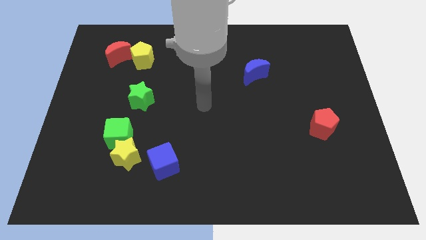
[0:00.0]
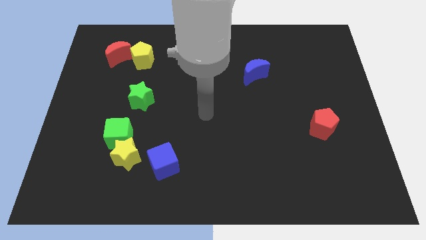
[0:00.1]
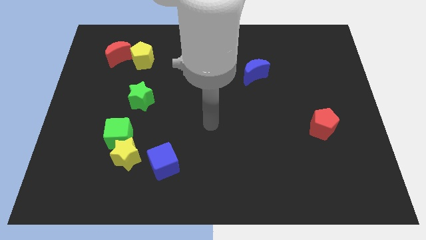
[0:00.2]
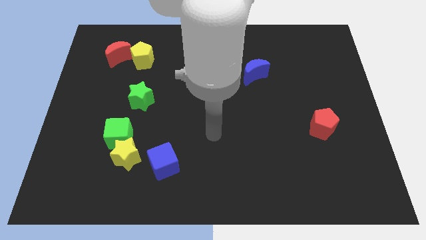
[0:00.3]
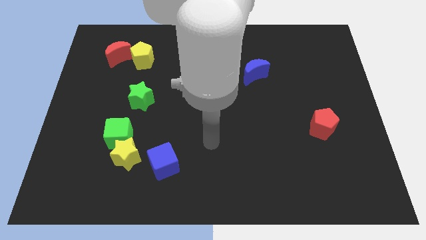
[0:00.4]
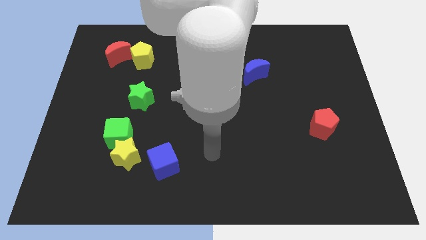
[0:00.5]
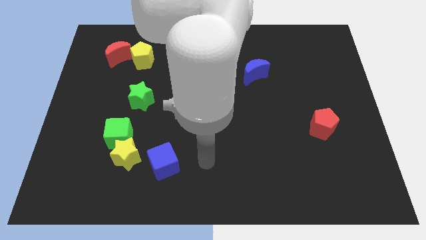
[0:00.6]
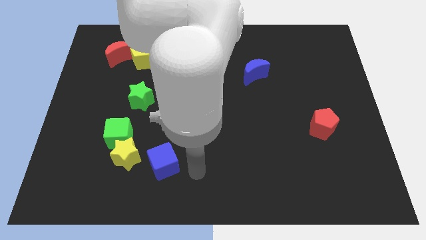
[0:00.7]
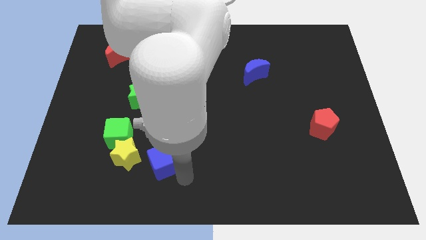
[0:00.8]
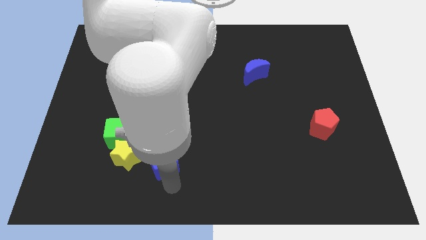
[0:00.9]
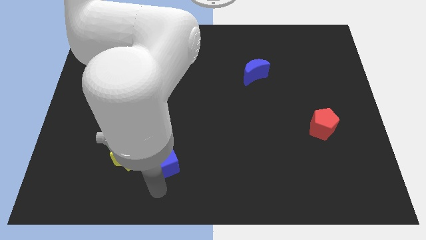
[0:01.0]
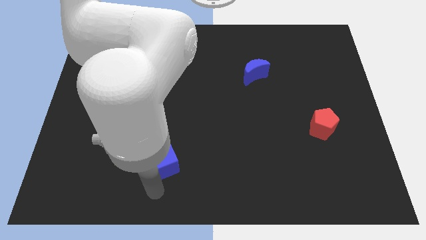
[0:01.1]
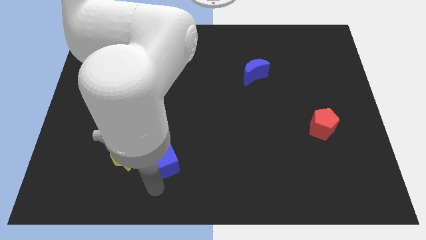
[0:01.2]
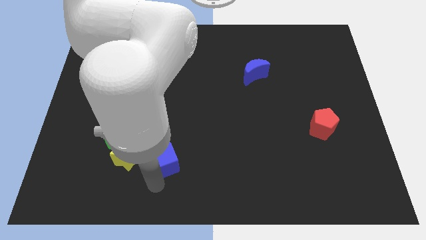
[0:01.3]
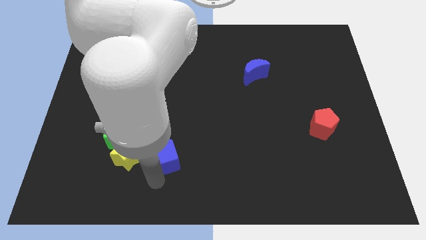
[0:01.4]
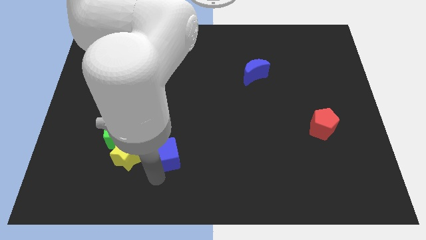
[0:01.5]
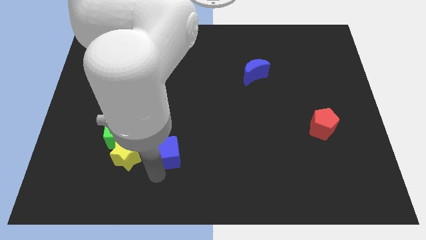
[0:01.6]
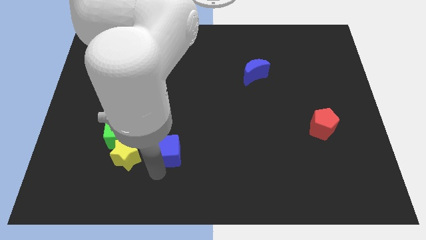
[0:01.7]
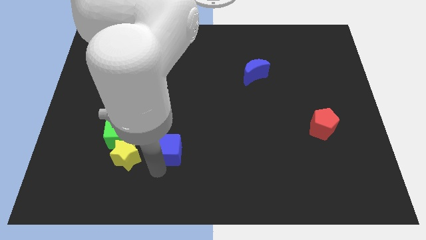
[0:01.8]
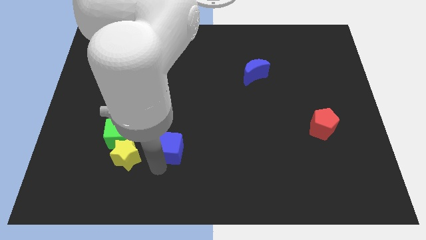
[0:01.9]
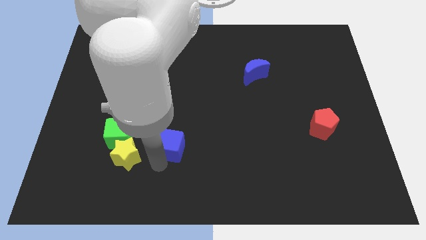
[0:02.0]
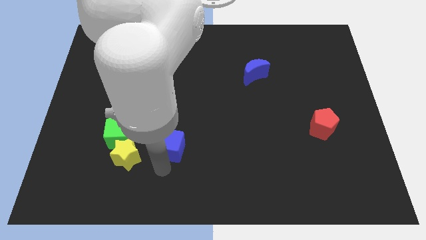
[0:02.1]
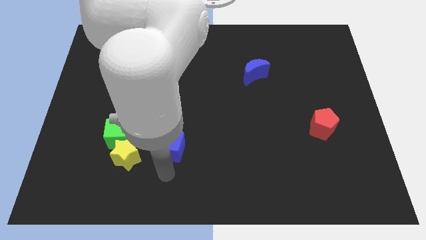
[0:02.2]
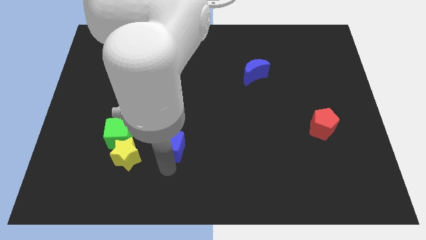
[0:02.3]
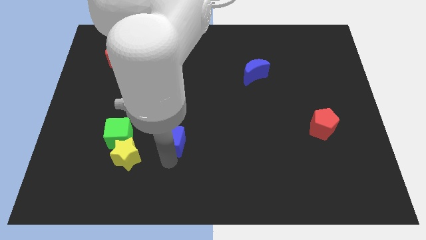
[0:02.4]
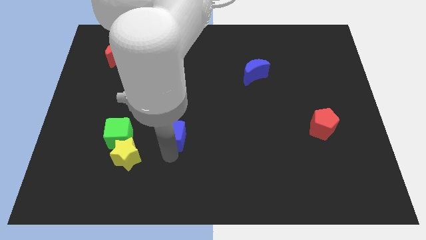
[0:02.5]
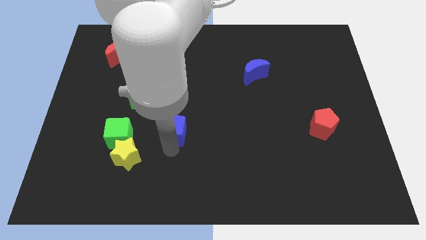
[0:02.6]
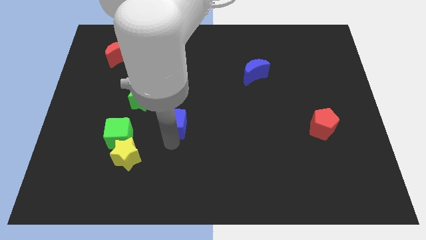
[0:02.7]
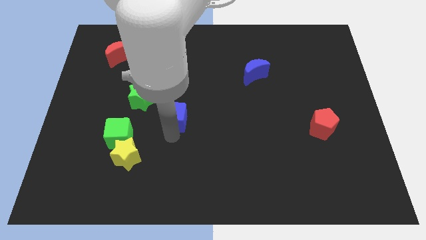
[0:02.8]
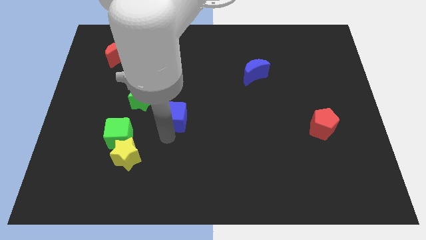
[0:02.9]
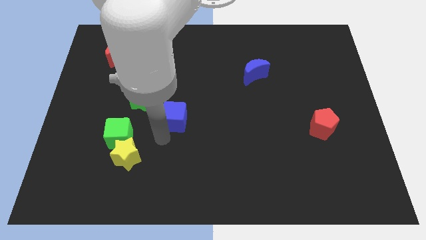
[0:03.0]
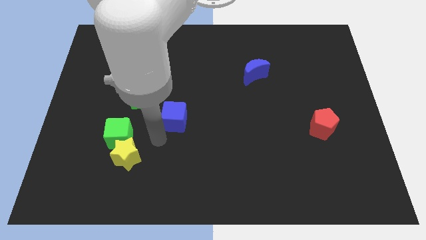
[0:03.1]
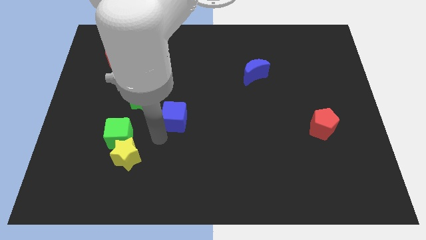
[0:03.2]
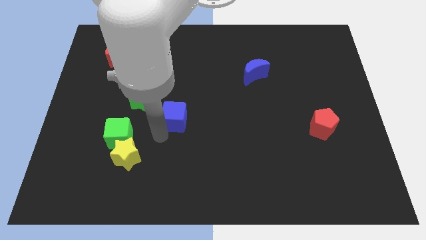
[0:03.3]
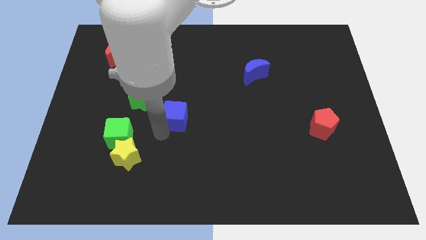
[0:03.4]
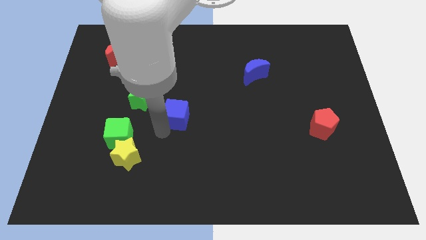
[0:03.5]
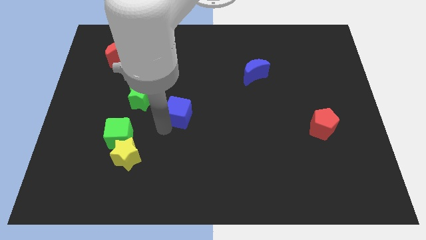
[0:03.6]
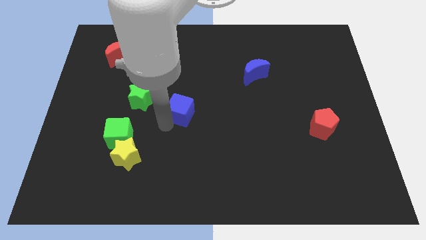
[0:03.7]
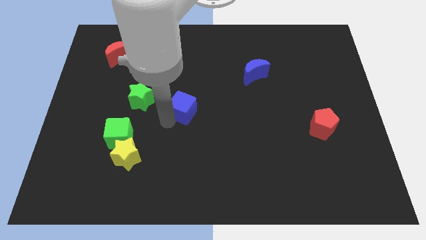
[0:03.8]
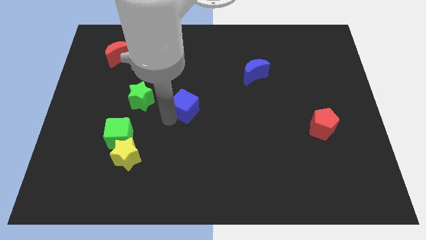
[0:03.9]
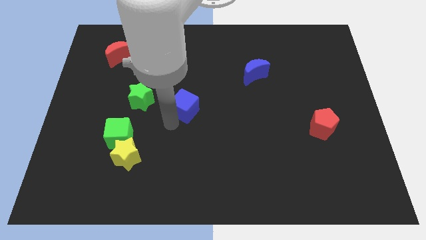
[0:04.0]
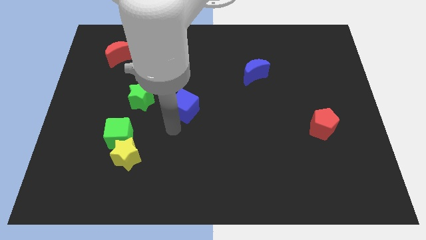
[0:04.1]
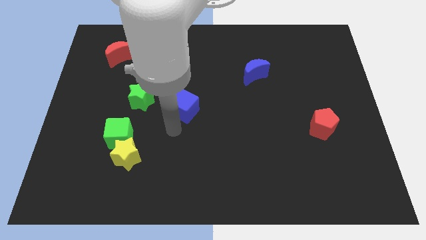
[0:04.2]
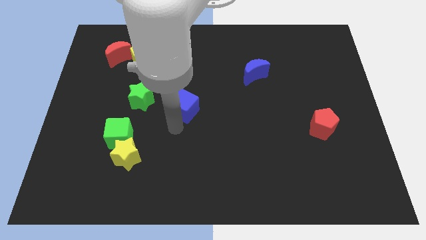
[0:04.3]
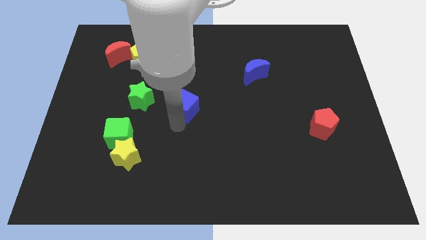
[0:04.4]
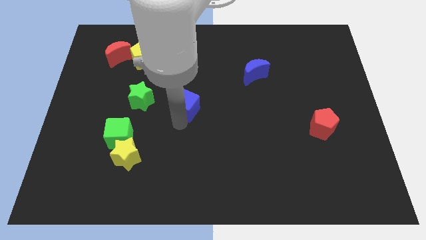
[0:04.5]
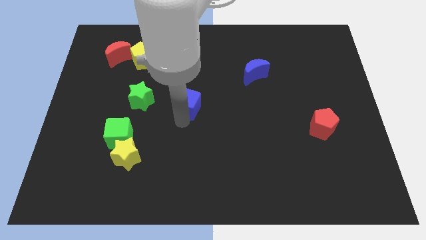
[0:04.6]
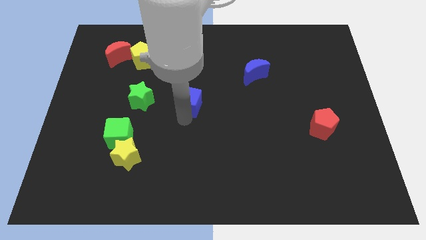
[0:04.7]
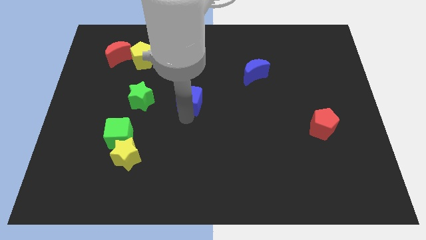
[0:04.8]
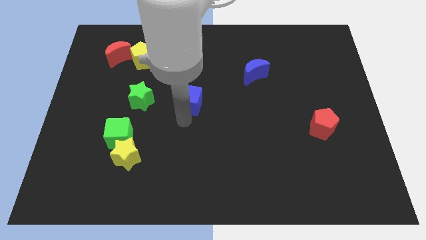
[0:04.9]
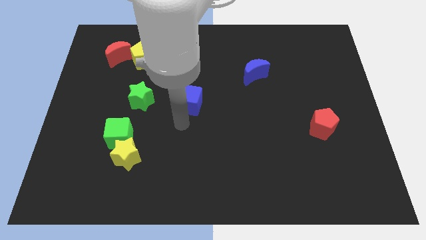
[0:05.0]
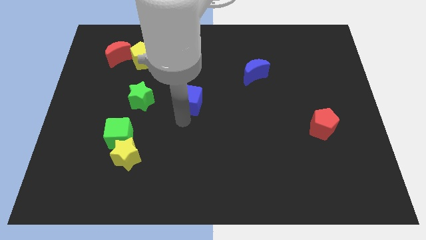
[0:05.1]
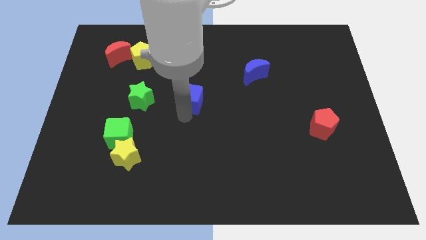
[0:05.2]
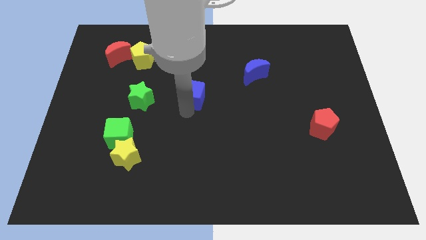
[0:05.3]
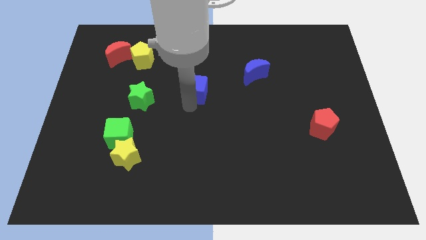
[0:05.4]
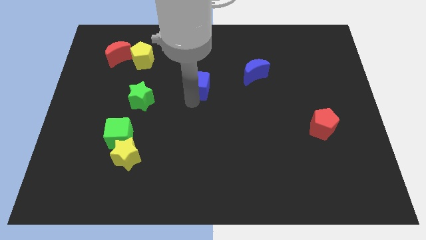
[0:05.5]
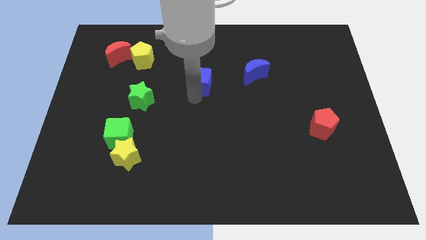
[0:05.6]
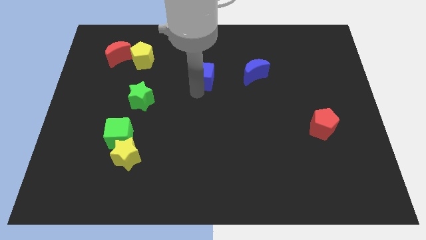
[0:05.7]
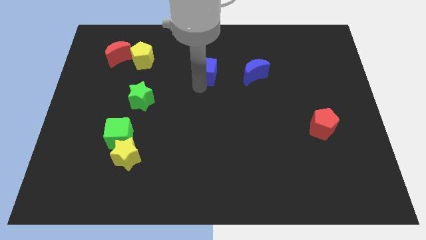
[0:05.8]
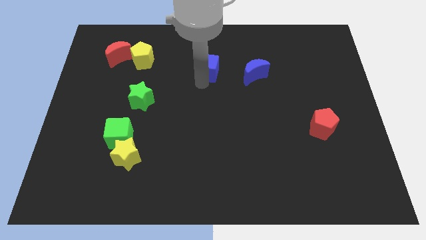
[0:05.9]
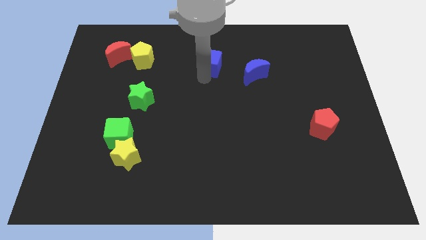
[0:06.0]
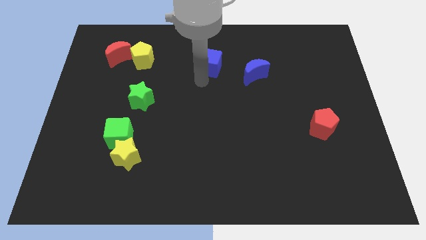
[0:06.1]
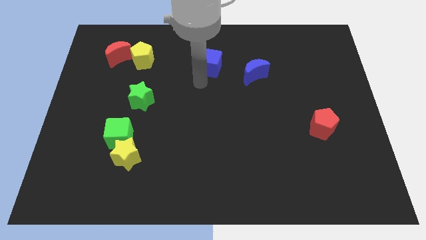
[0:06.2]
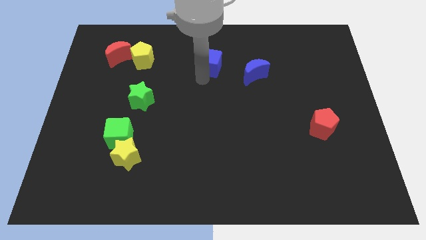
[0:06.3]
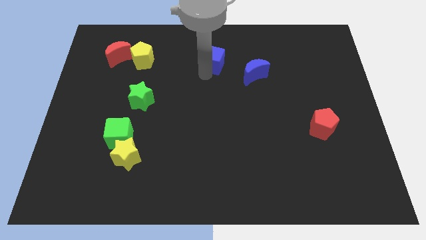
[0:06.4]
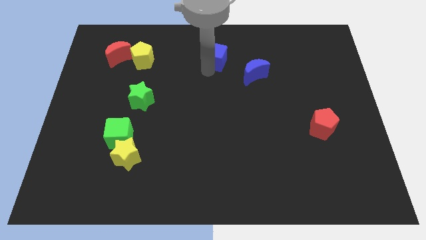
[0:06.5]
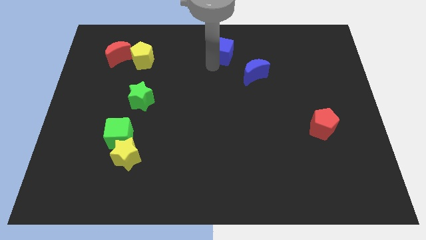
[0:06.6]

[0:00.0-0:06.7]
move the blue cube to the top
